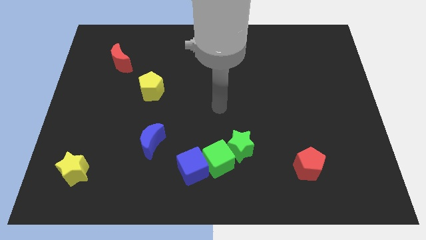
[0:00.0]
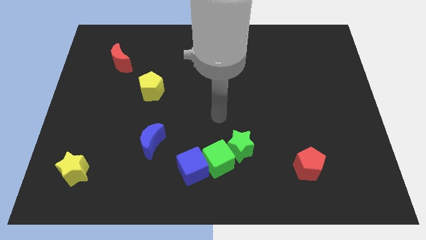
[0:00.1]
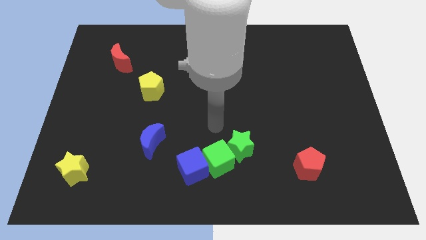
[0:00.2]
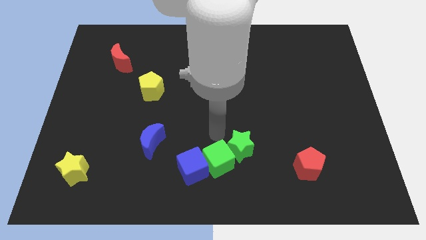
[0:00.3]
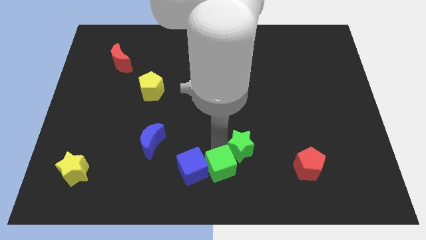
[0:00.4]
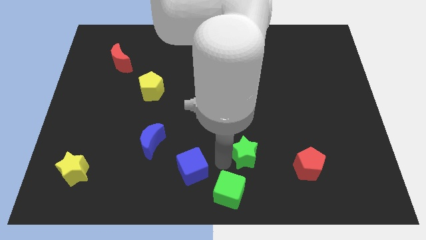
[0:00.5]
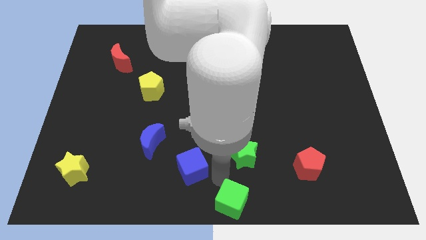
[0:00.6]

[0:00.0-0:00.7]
separate the blue cube from the green cube

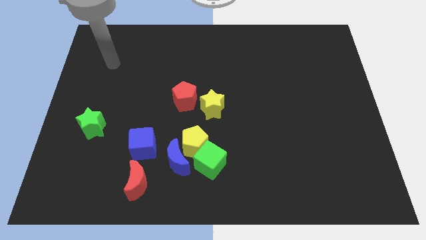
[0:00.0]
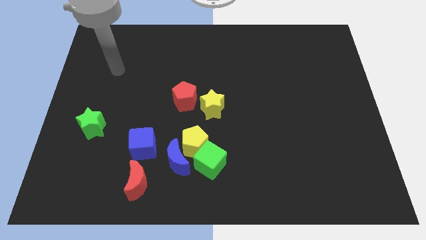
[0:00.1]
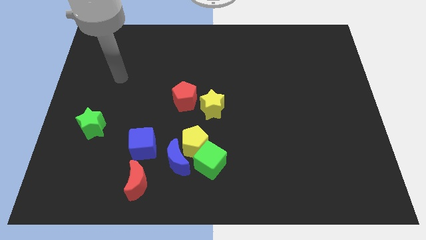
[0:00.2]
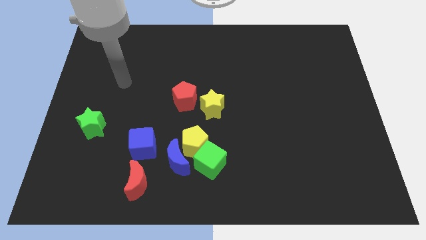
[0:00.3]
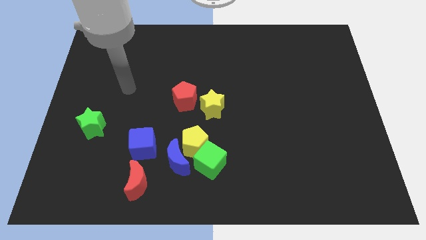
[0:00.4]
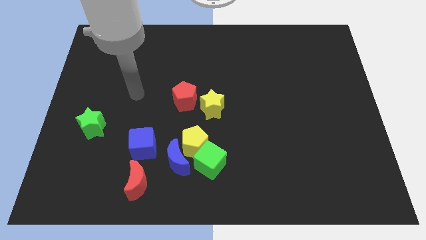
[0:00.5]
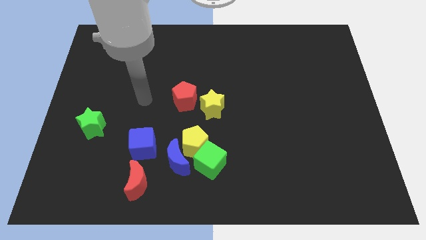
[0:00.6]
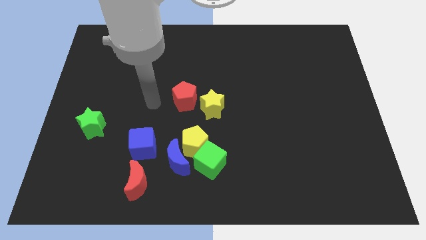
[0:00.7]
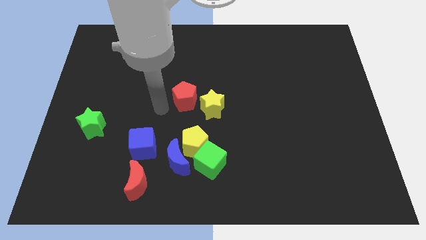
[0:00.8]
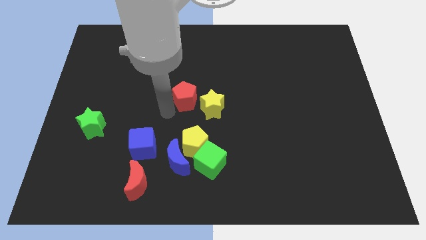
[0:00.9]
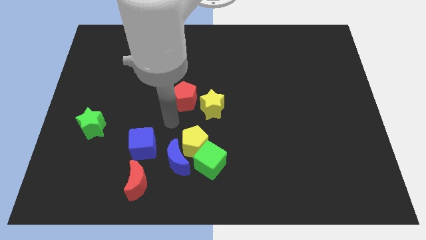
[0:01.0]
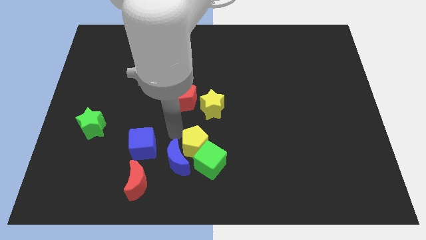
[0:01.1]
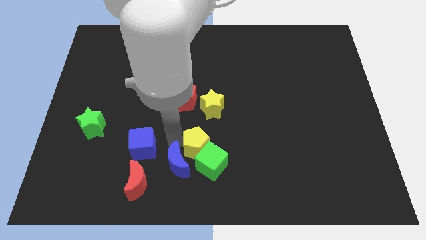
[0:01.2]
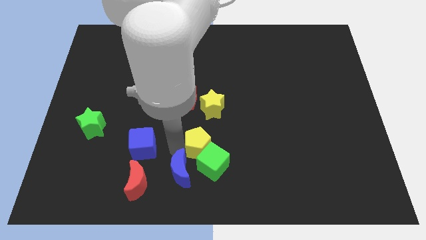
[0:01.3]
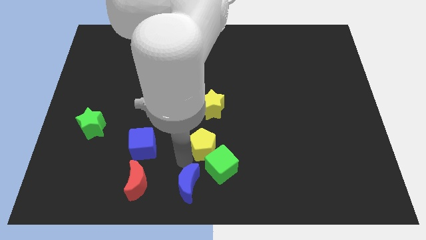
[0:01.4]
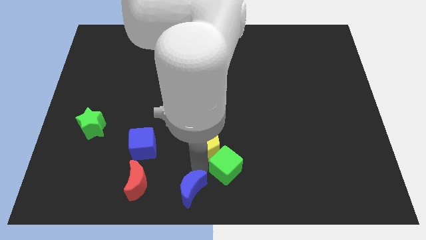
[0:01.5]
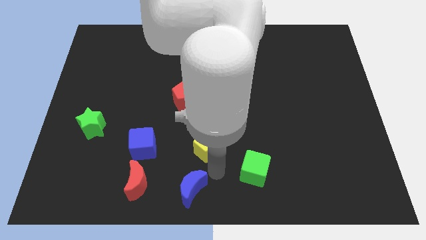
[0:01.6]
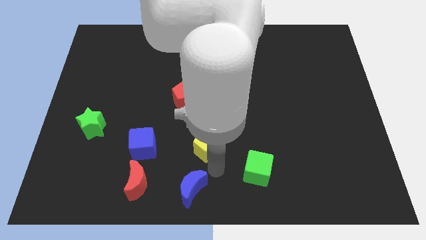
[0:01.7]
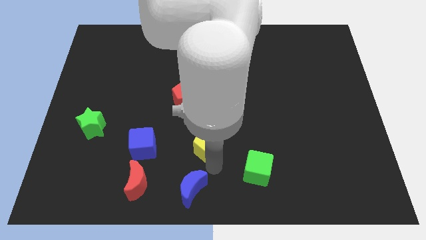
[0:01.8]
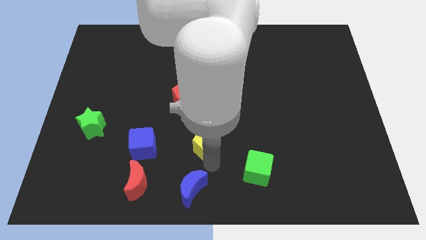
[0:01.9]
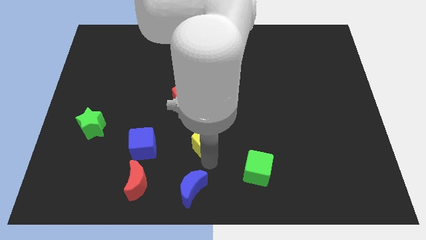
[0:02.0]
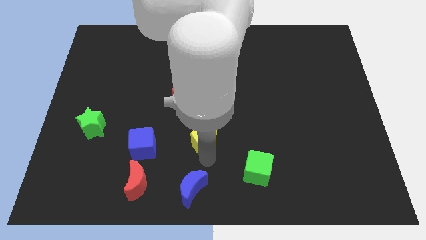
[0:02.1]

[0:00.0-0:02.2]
separate the yellow pentagon from the blue moon and green cube

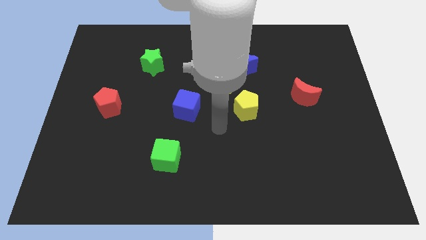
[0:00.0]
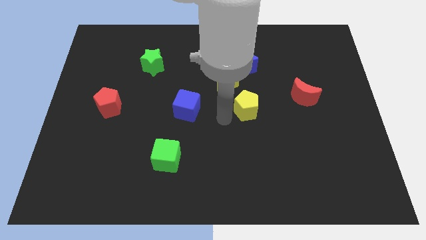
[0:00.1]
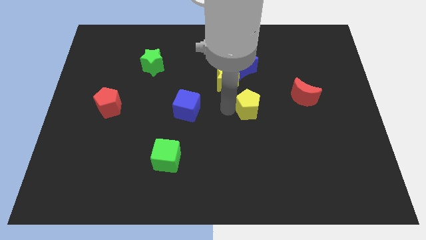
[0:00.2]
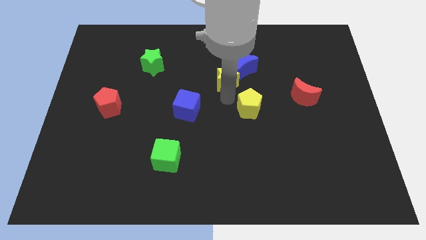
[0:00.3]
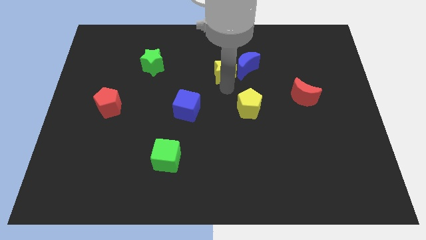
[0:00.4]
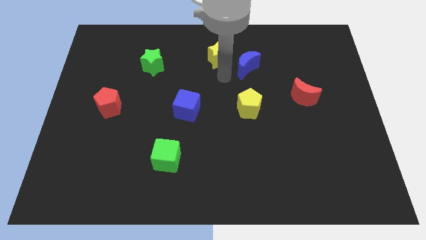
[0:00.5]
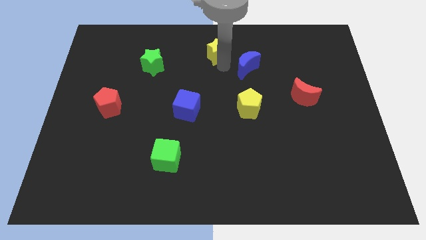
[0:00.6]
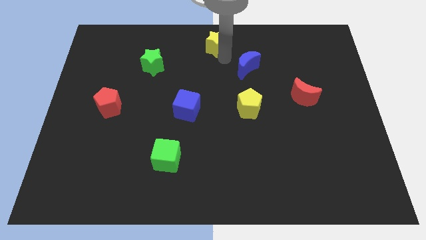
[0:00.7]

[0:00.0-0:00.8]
move the blue moon away from the yellow star

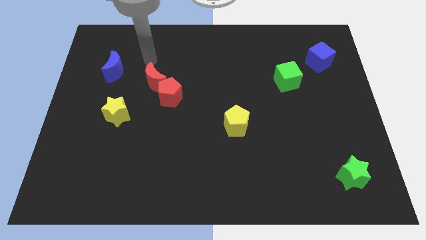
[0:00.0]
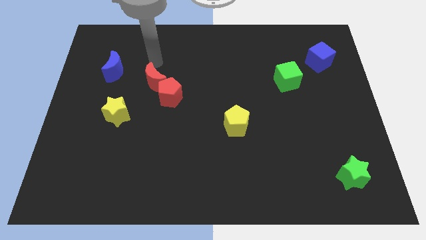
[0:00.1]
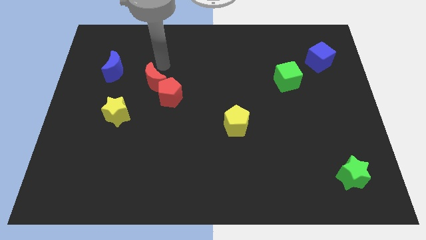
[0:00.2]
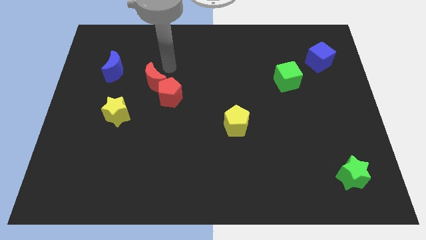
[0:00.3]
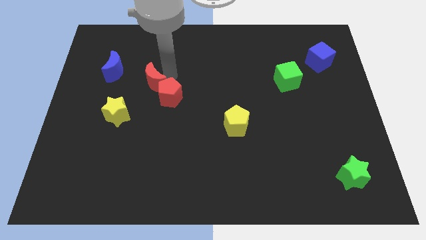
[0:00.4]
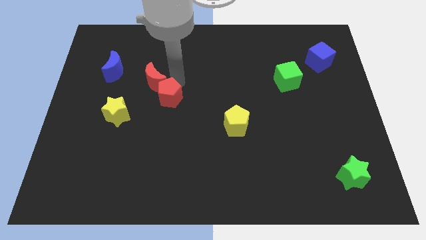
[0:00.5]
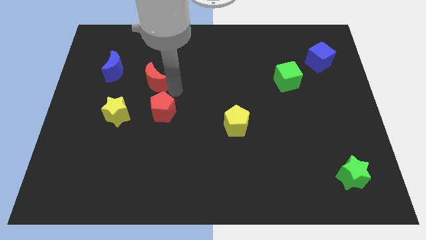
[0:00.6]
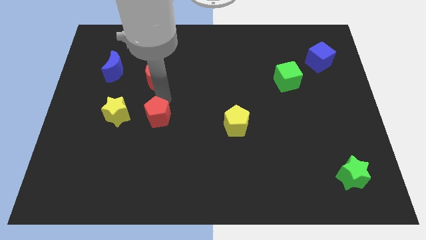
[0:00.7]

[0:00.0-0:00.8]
separate the red moon from the red pentagon

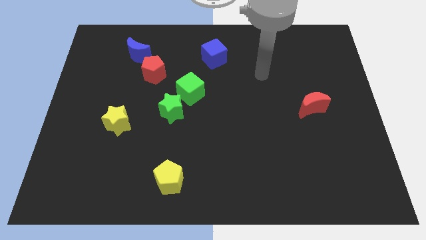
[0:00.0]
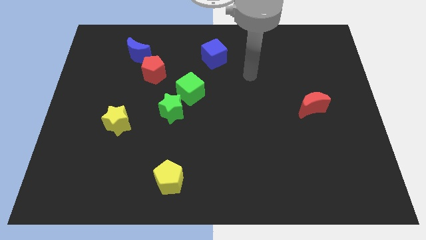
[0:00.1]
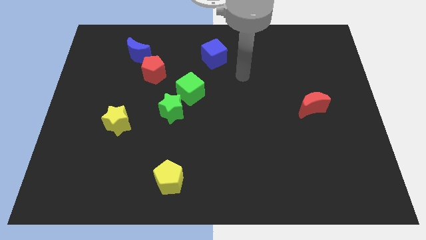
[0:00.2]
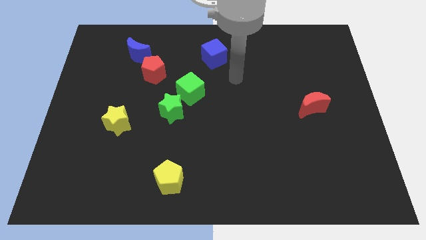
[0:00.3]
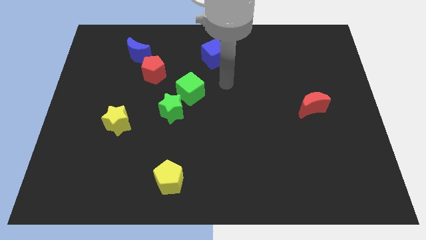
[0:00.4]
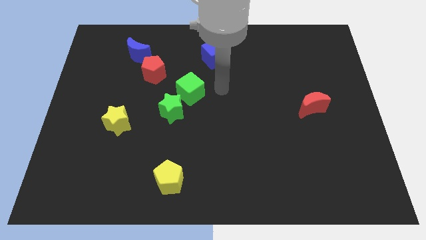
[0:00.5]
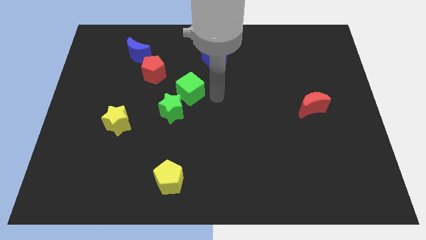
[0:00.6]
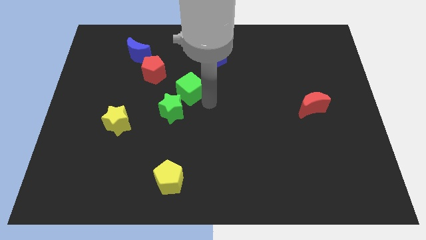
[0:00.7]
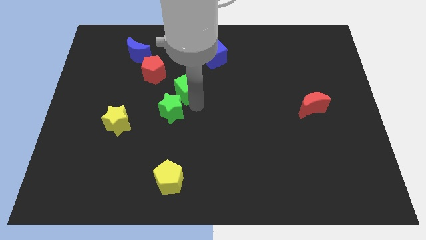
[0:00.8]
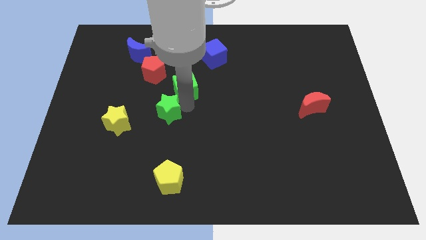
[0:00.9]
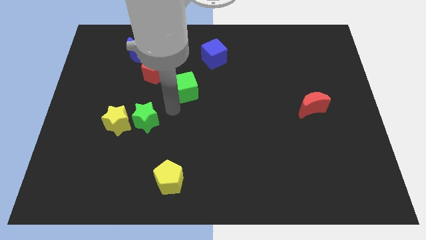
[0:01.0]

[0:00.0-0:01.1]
pull the green cube apart from the green star

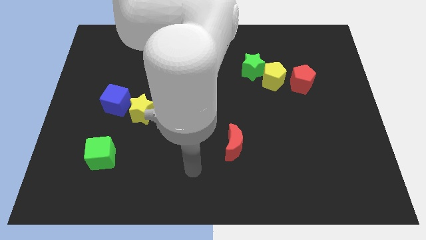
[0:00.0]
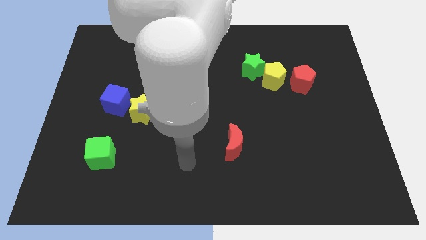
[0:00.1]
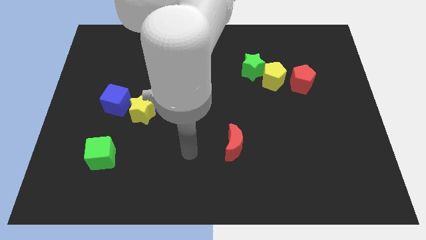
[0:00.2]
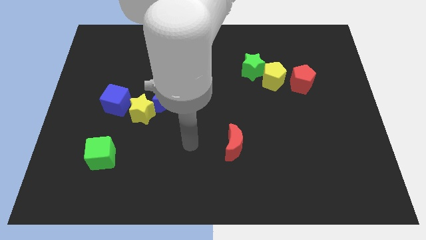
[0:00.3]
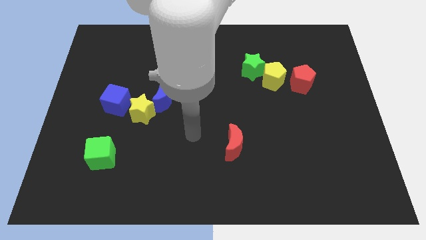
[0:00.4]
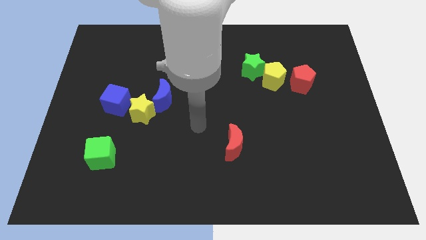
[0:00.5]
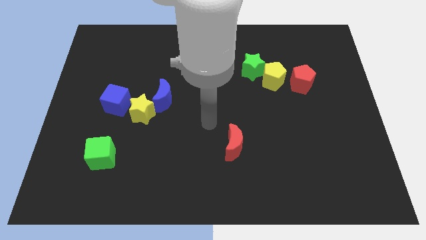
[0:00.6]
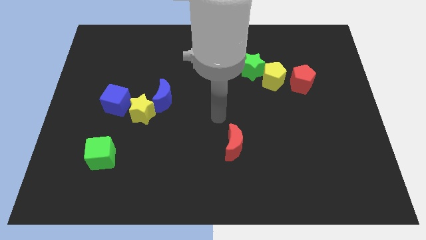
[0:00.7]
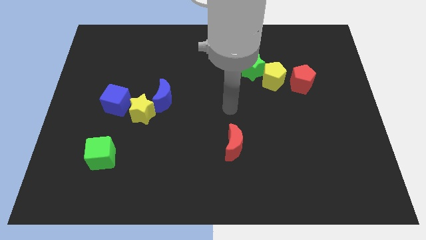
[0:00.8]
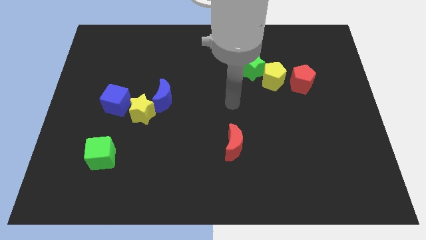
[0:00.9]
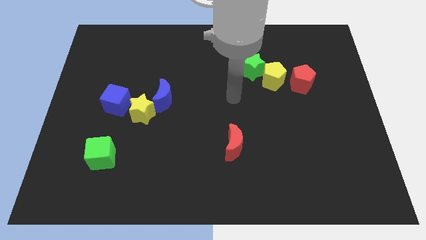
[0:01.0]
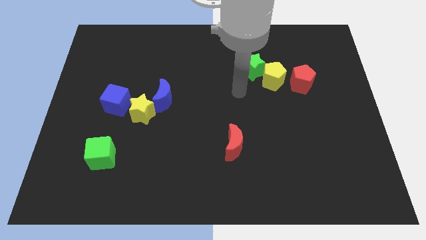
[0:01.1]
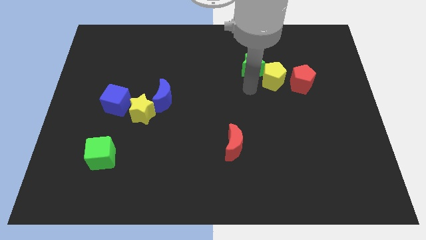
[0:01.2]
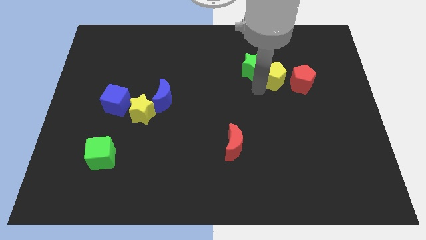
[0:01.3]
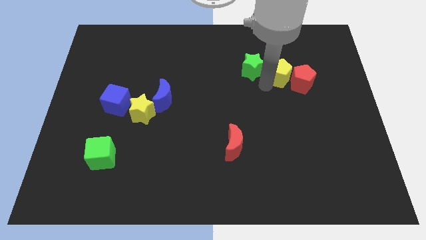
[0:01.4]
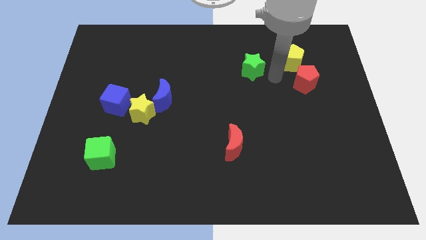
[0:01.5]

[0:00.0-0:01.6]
separate the green star from the yellow pentagon

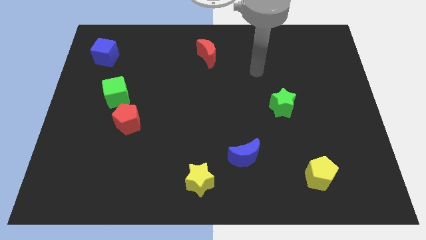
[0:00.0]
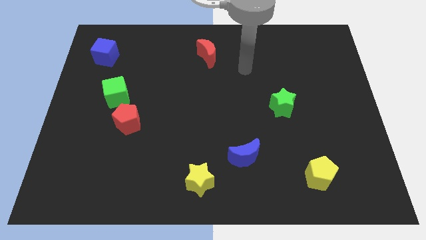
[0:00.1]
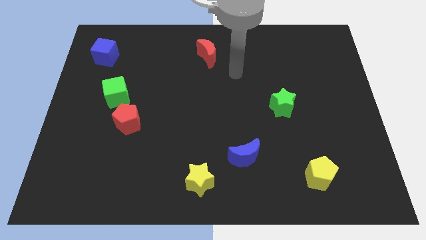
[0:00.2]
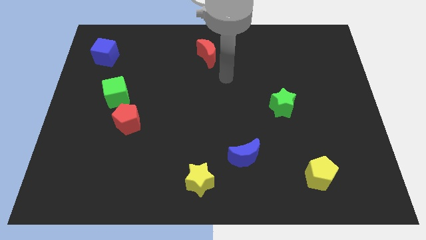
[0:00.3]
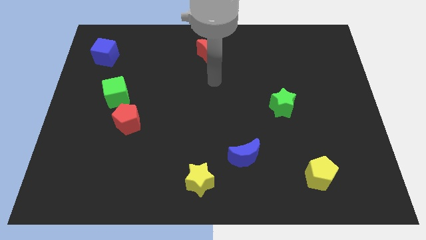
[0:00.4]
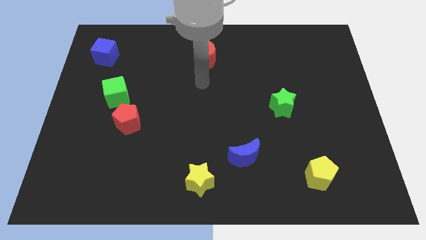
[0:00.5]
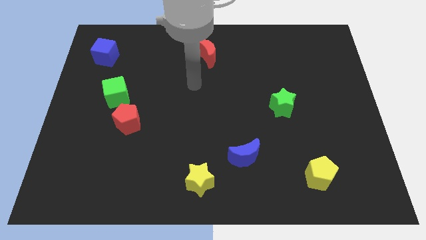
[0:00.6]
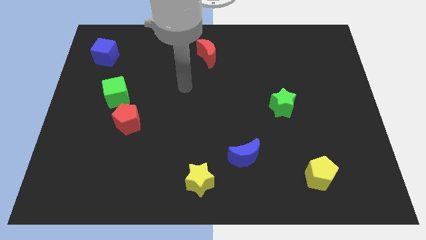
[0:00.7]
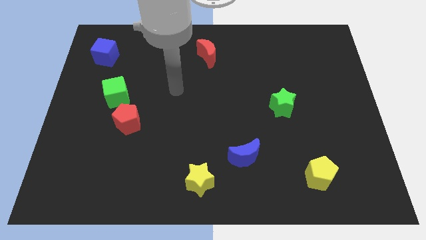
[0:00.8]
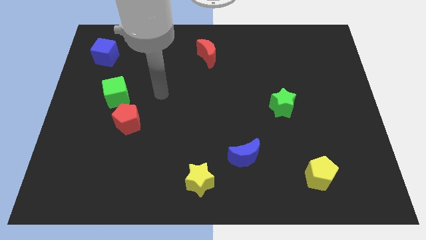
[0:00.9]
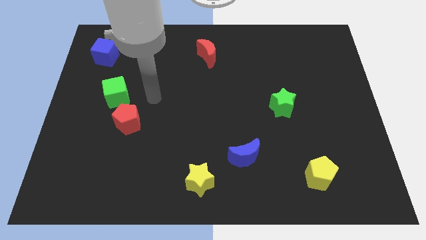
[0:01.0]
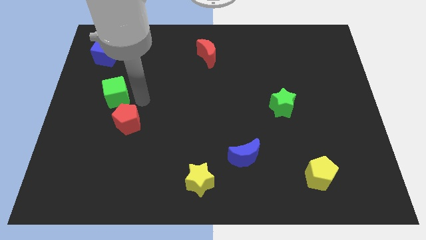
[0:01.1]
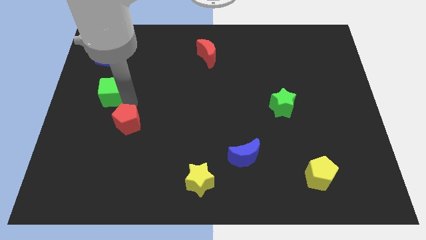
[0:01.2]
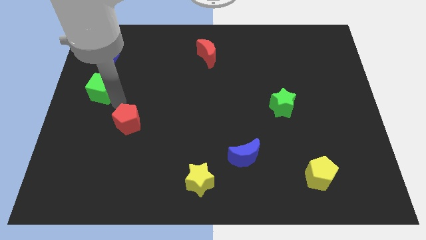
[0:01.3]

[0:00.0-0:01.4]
separate the red pentagon from the green cube

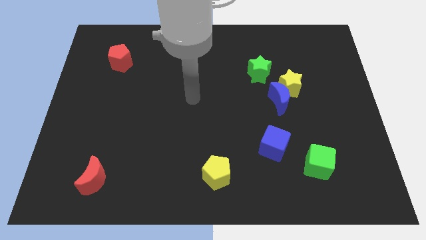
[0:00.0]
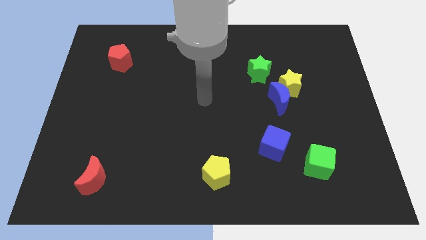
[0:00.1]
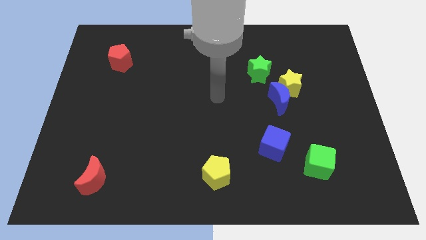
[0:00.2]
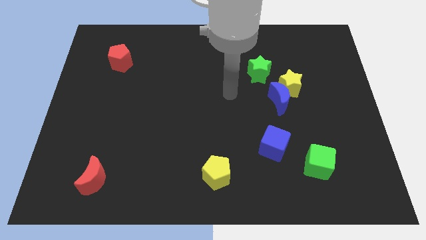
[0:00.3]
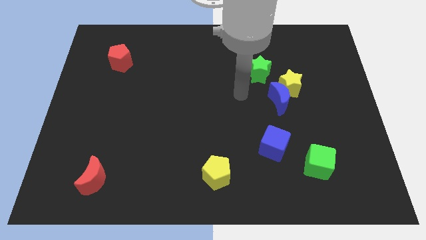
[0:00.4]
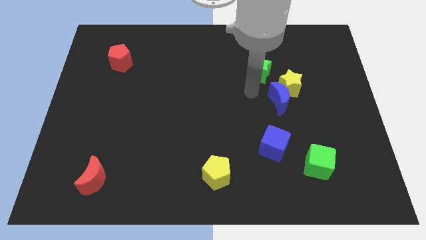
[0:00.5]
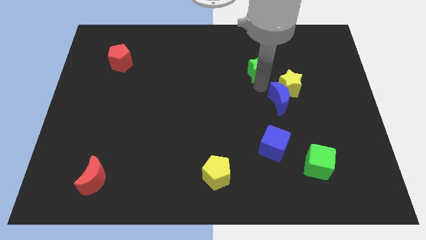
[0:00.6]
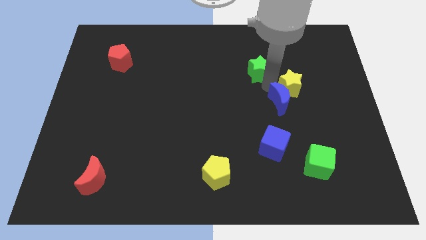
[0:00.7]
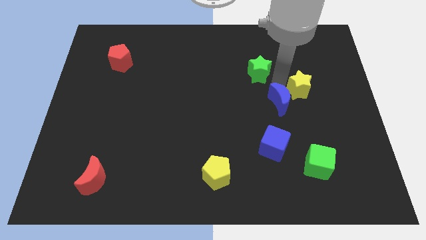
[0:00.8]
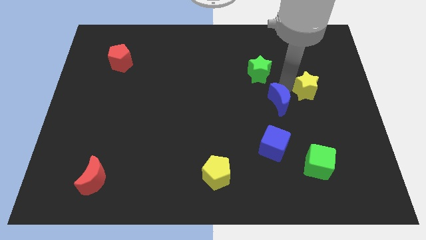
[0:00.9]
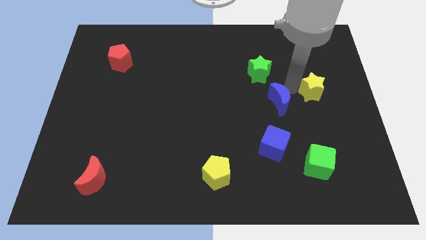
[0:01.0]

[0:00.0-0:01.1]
pull the yellow star apart from the blue moon and green star
